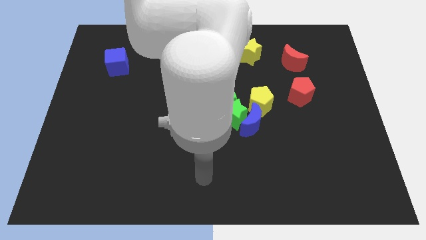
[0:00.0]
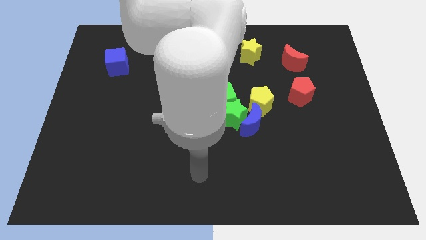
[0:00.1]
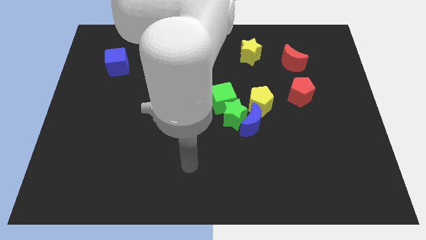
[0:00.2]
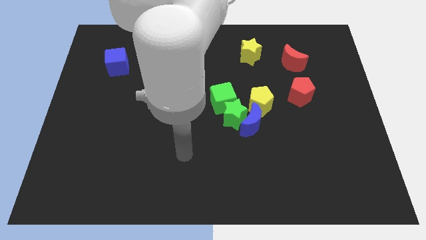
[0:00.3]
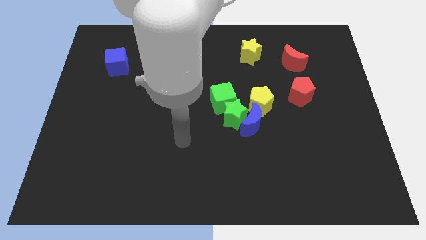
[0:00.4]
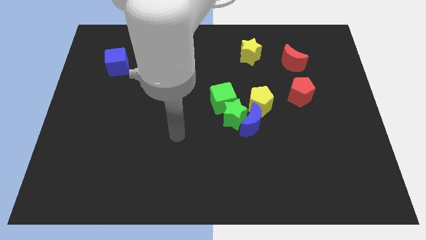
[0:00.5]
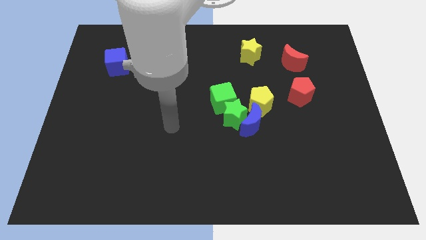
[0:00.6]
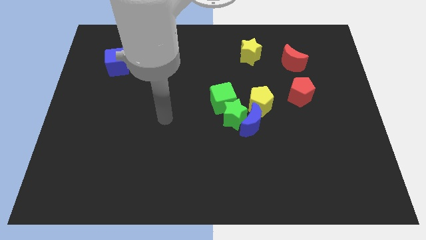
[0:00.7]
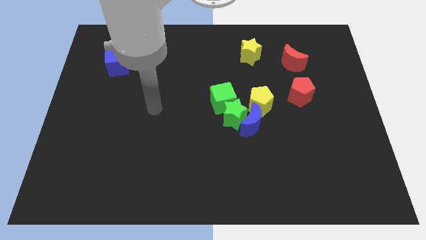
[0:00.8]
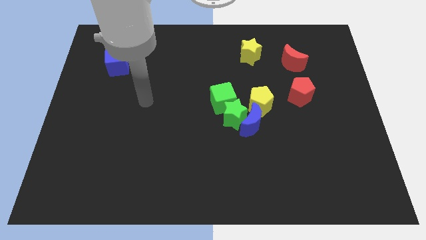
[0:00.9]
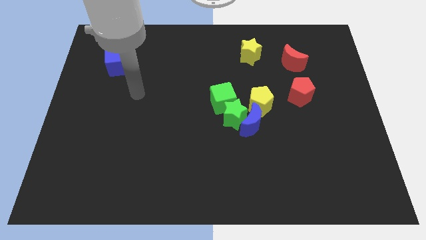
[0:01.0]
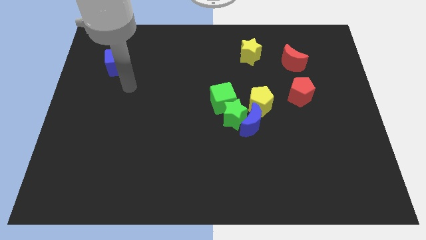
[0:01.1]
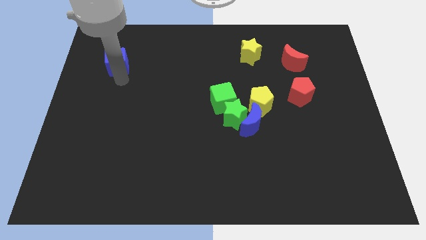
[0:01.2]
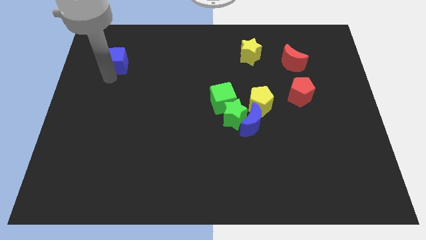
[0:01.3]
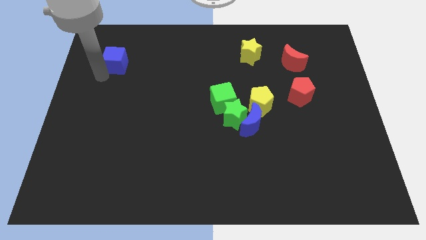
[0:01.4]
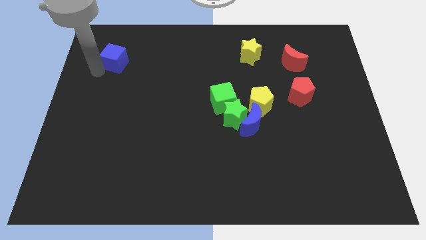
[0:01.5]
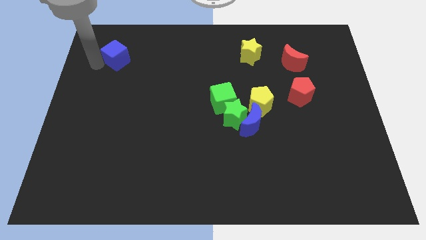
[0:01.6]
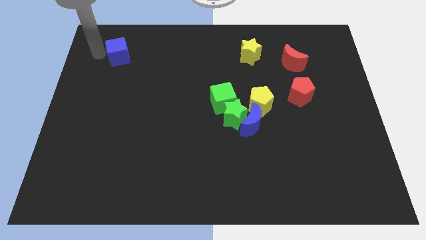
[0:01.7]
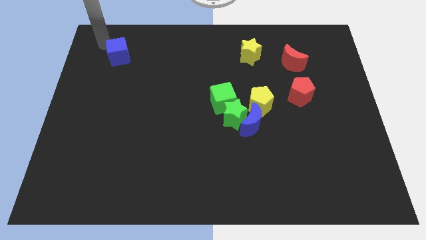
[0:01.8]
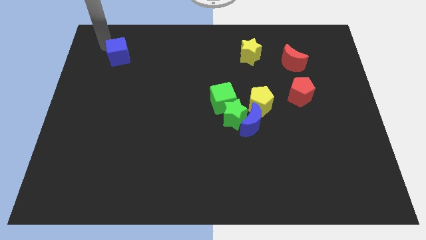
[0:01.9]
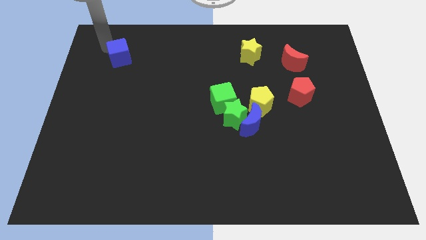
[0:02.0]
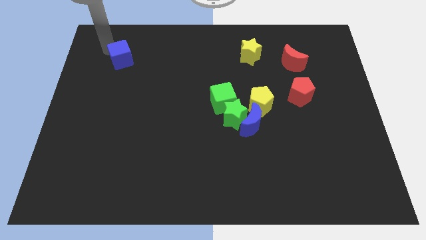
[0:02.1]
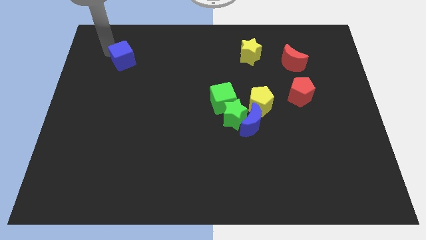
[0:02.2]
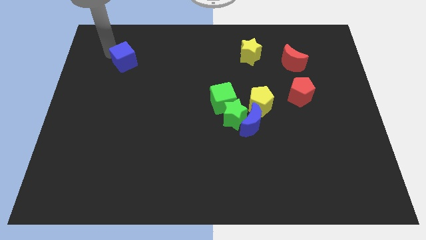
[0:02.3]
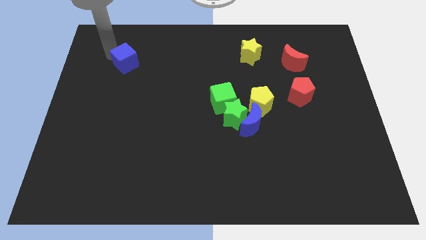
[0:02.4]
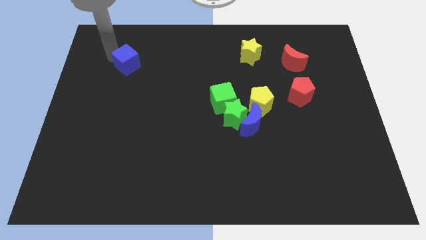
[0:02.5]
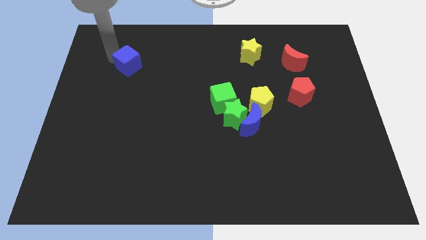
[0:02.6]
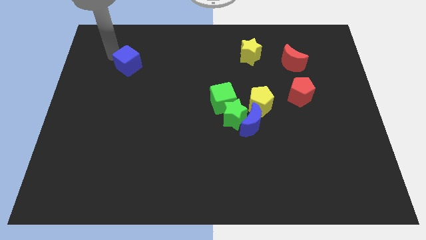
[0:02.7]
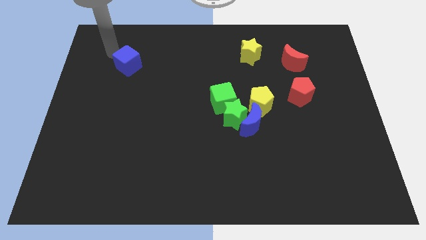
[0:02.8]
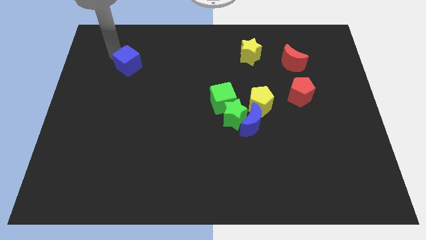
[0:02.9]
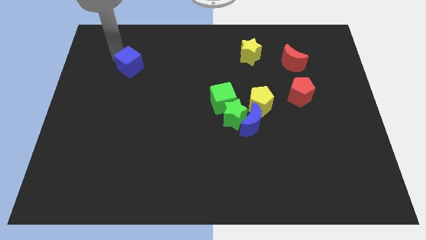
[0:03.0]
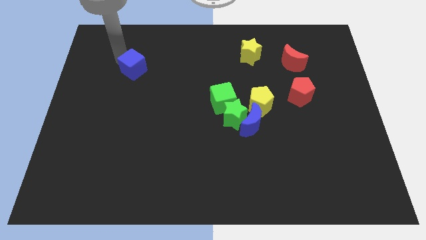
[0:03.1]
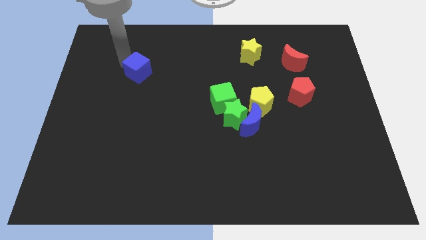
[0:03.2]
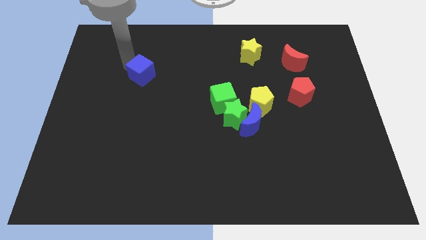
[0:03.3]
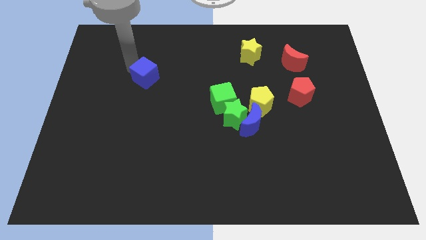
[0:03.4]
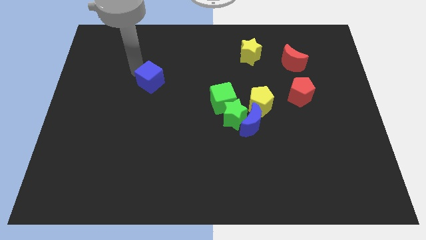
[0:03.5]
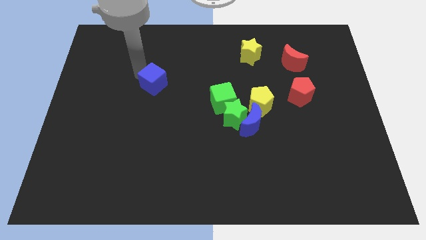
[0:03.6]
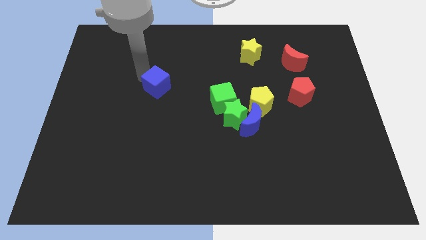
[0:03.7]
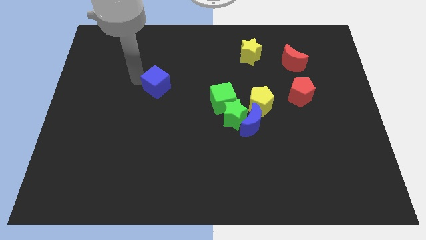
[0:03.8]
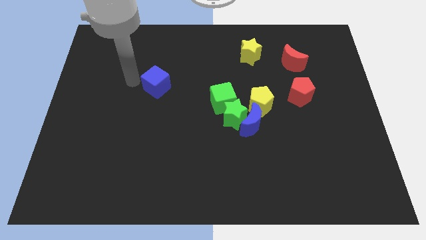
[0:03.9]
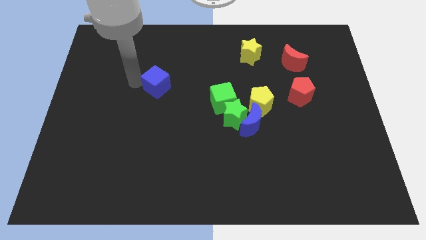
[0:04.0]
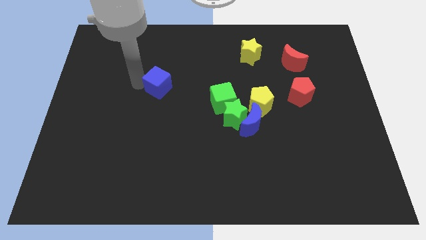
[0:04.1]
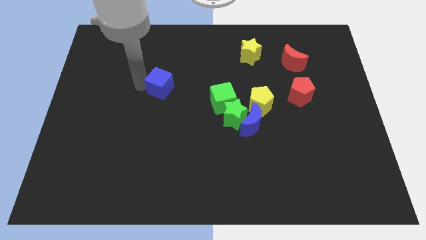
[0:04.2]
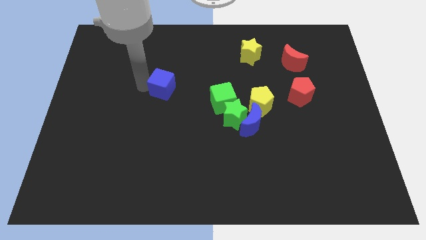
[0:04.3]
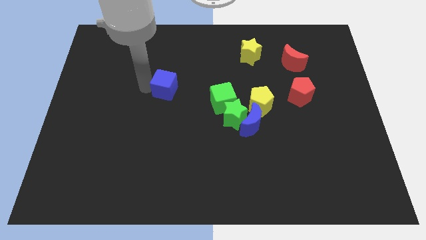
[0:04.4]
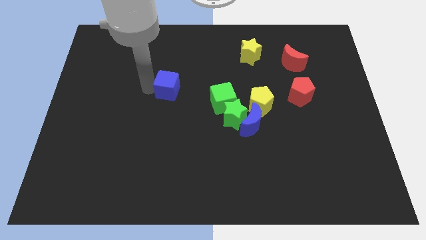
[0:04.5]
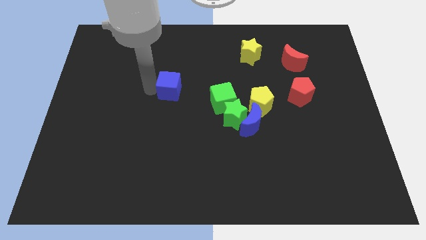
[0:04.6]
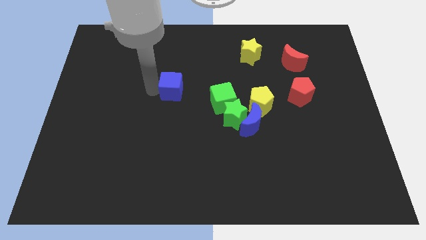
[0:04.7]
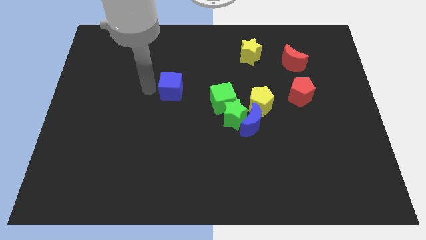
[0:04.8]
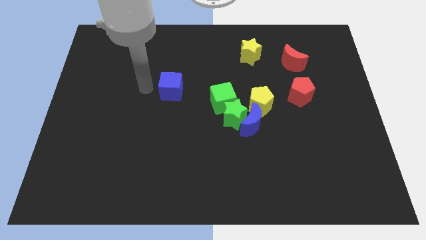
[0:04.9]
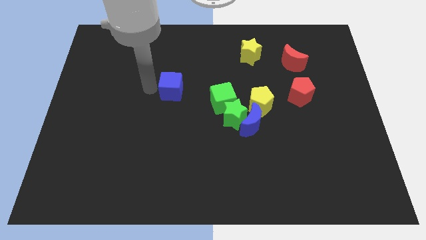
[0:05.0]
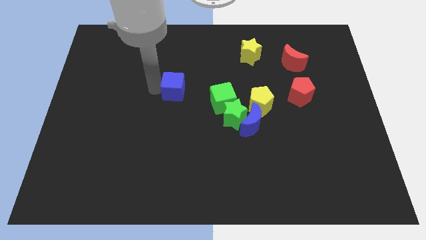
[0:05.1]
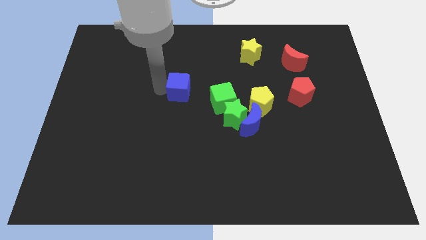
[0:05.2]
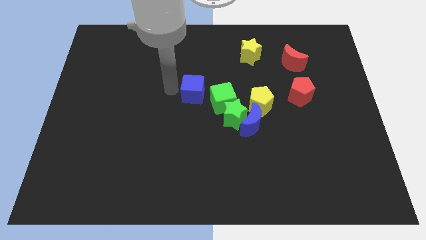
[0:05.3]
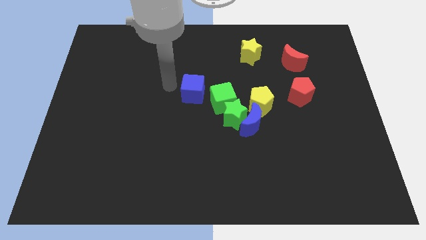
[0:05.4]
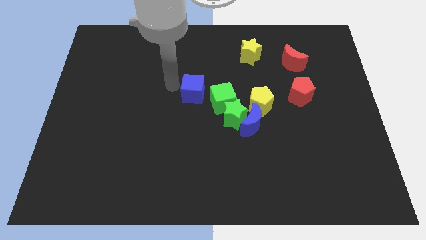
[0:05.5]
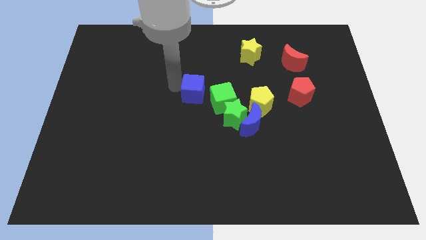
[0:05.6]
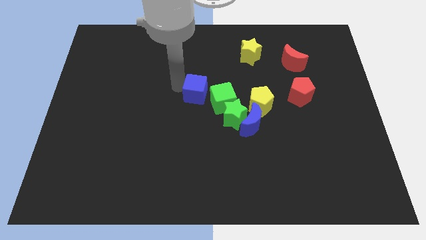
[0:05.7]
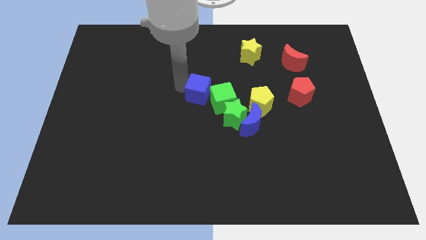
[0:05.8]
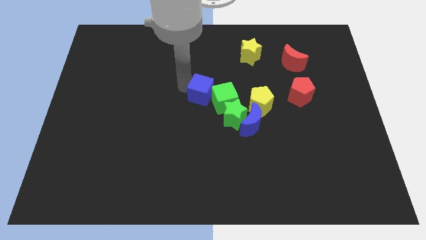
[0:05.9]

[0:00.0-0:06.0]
push the blue cube next to the green cube

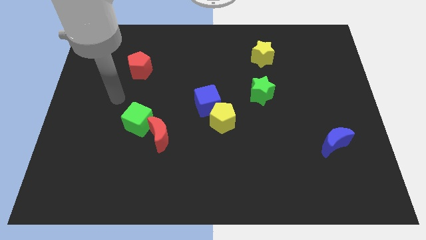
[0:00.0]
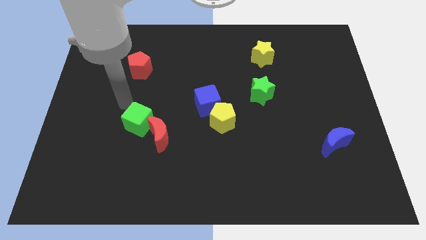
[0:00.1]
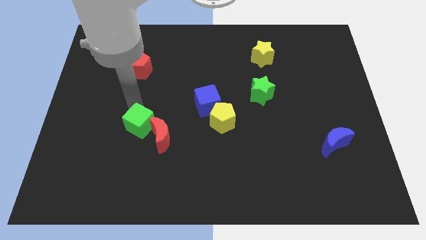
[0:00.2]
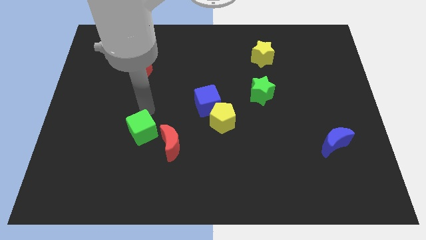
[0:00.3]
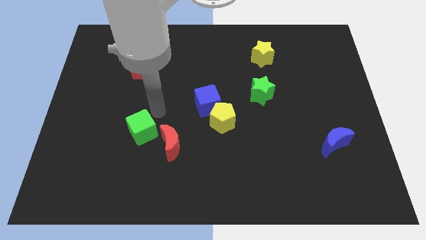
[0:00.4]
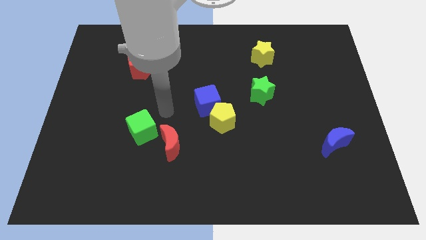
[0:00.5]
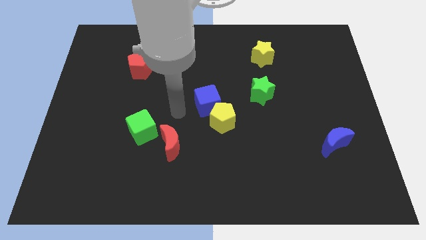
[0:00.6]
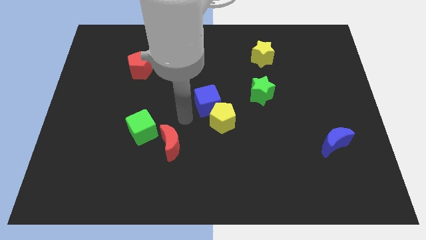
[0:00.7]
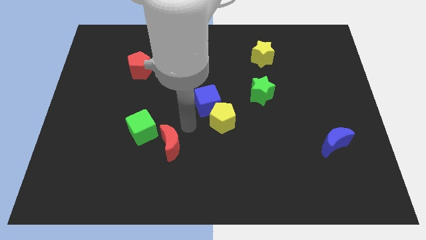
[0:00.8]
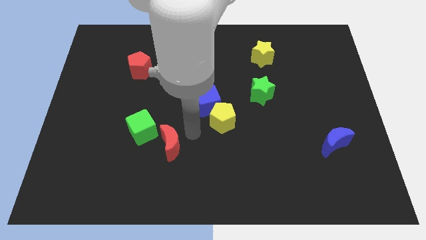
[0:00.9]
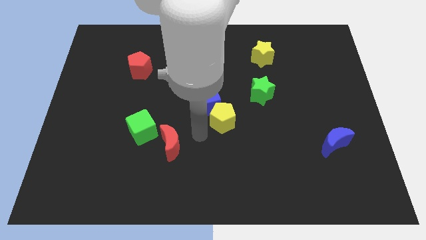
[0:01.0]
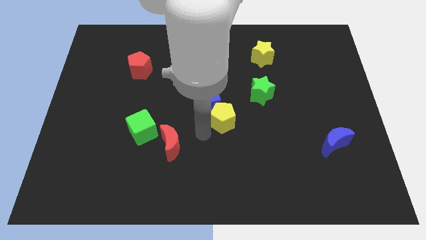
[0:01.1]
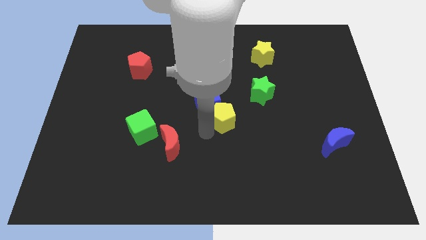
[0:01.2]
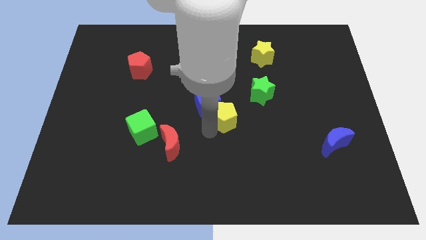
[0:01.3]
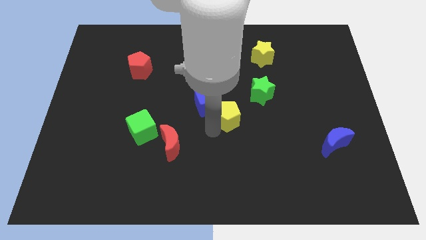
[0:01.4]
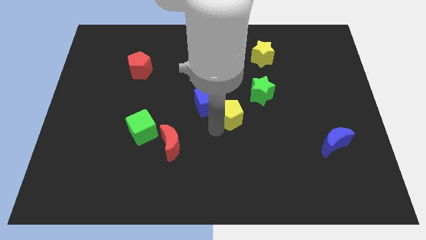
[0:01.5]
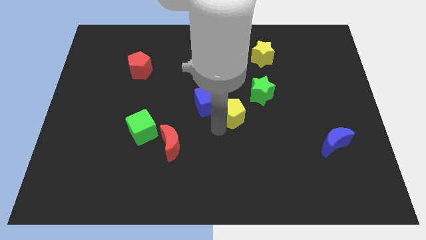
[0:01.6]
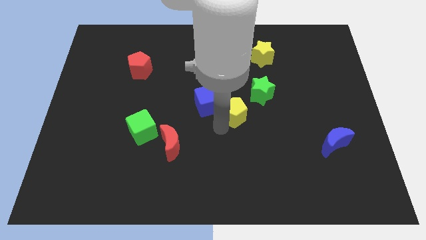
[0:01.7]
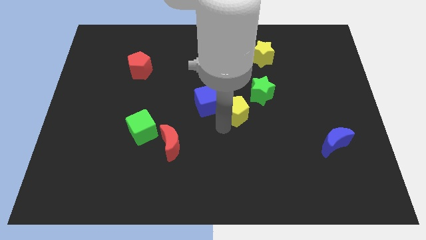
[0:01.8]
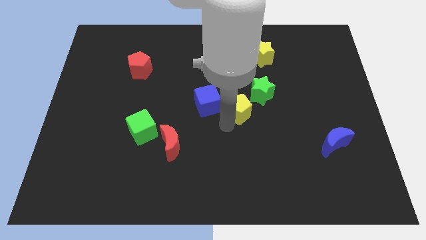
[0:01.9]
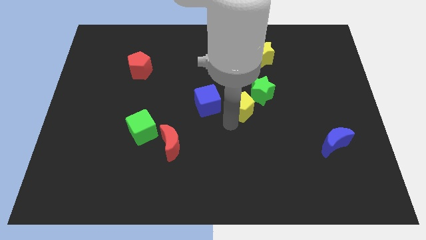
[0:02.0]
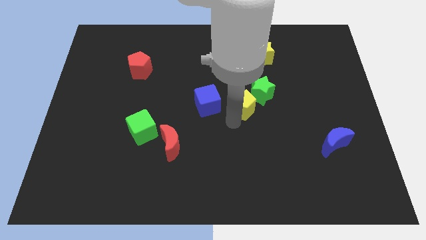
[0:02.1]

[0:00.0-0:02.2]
slide the yellow pentagon next to the green star
